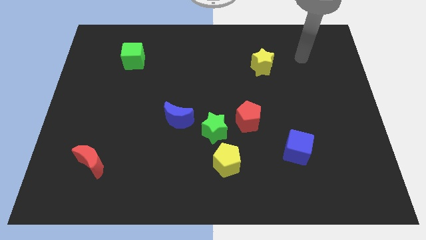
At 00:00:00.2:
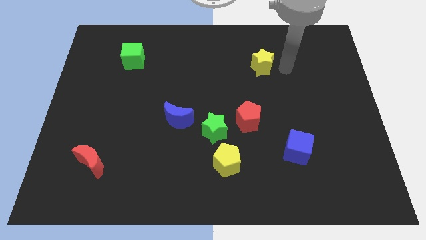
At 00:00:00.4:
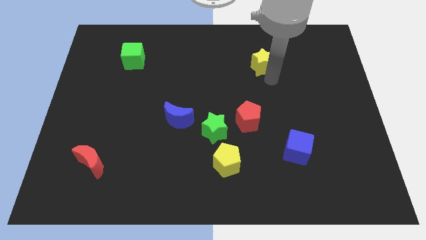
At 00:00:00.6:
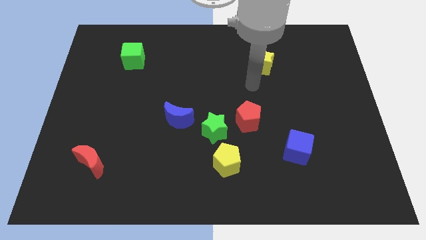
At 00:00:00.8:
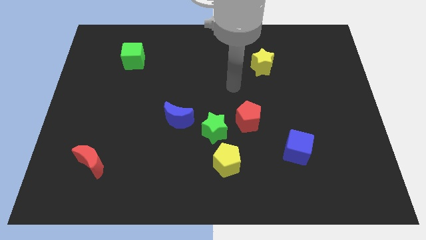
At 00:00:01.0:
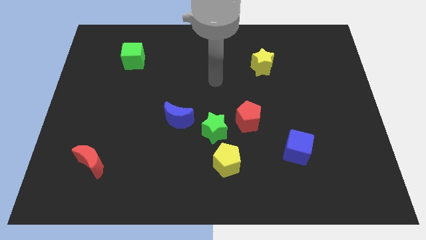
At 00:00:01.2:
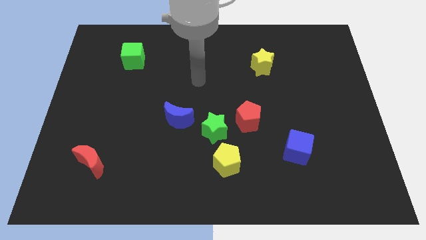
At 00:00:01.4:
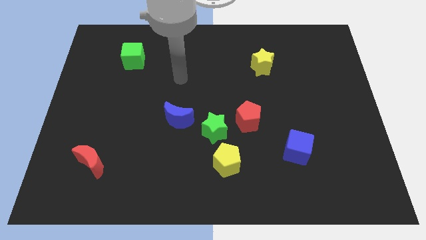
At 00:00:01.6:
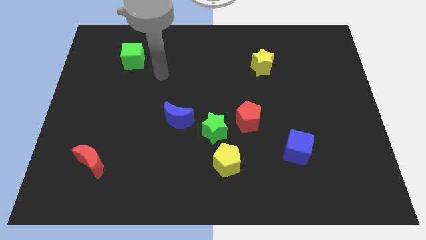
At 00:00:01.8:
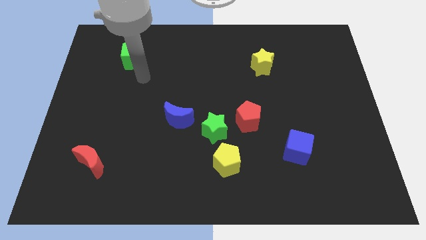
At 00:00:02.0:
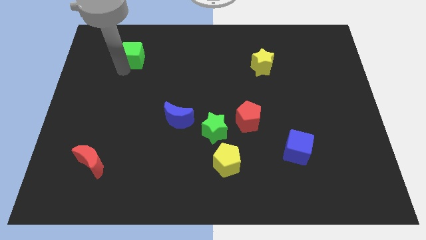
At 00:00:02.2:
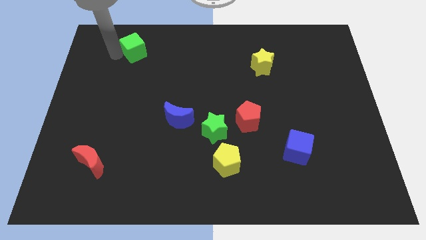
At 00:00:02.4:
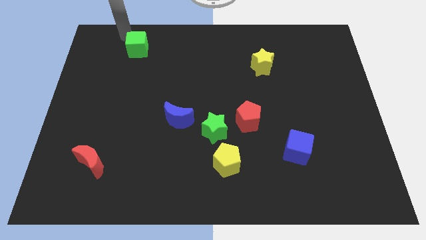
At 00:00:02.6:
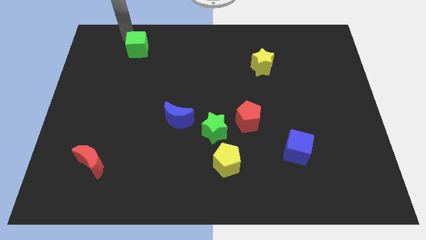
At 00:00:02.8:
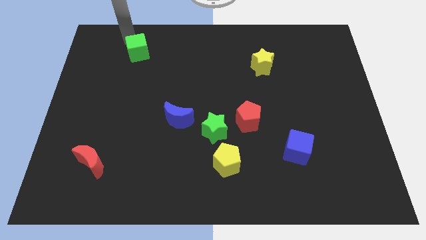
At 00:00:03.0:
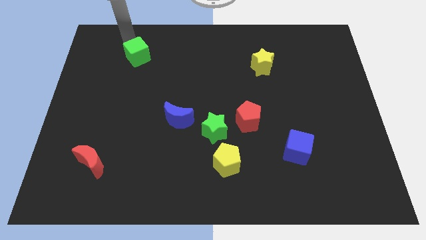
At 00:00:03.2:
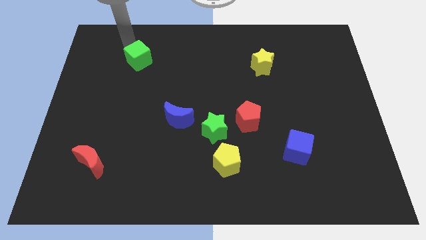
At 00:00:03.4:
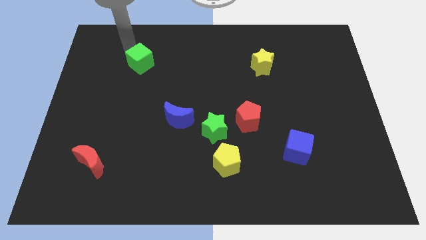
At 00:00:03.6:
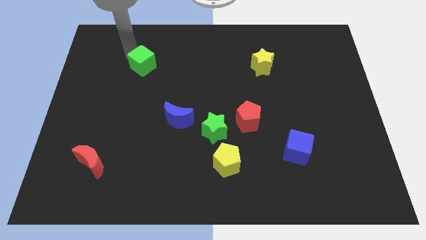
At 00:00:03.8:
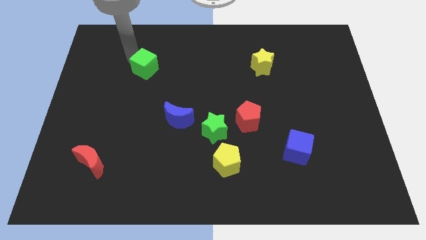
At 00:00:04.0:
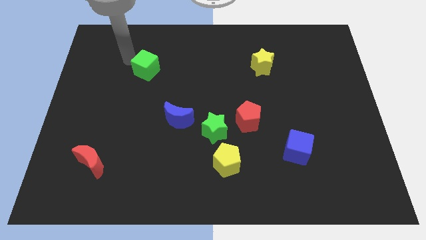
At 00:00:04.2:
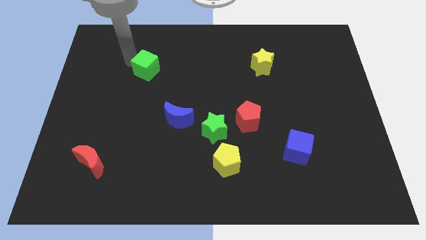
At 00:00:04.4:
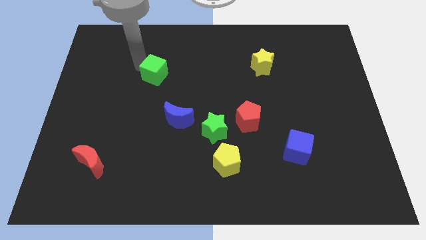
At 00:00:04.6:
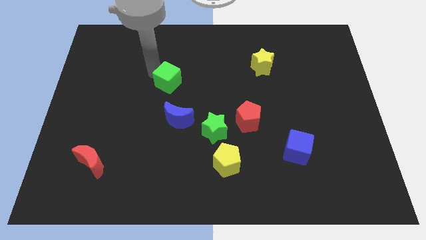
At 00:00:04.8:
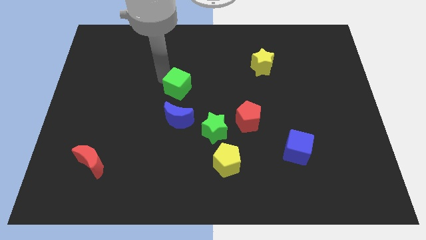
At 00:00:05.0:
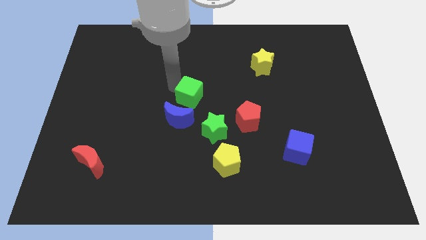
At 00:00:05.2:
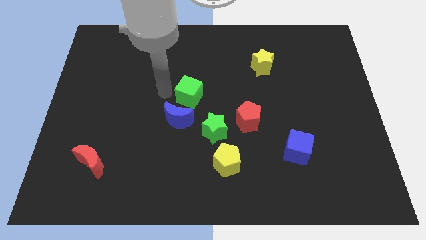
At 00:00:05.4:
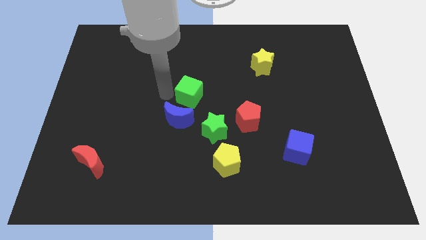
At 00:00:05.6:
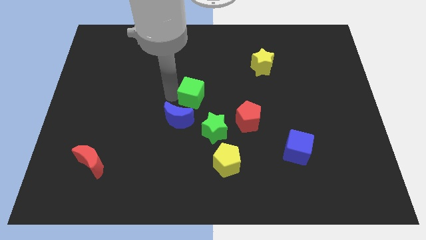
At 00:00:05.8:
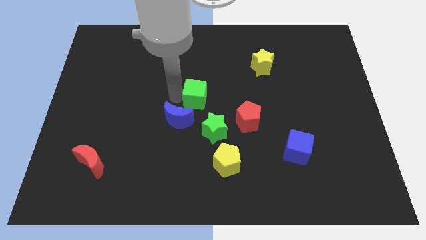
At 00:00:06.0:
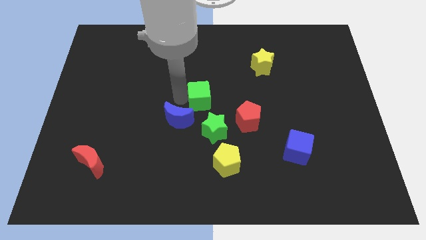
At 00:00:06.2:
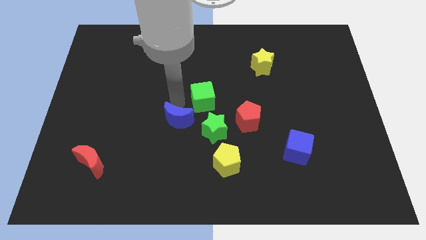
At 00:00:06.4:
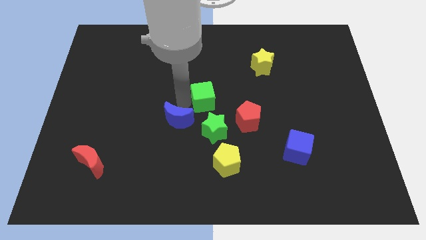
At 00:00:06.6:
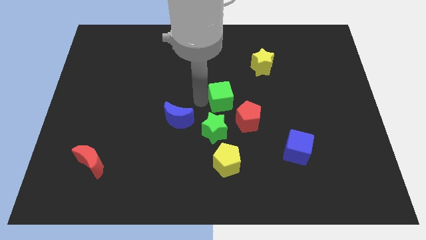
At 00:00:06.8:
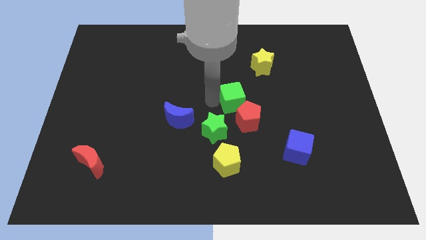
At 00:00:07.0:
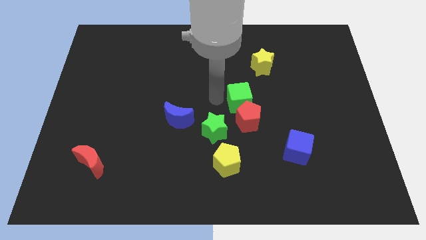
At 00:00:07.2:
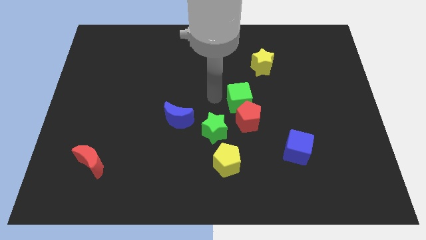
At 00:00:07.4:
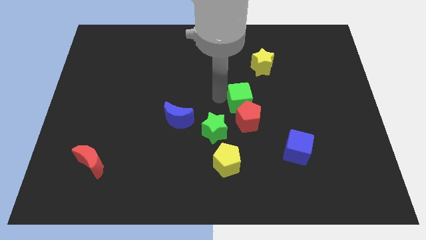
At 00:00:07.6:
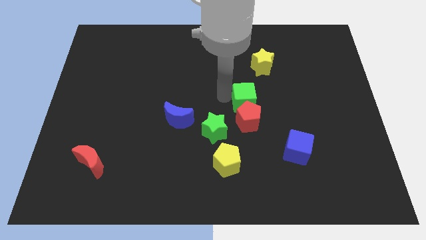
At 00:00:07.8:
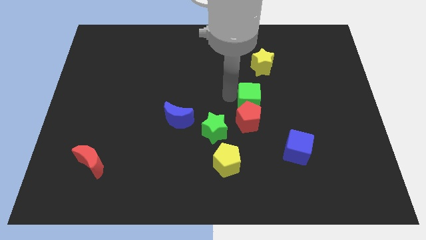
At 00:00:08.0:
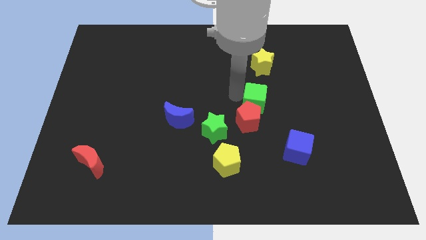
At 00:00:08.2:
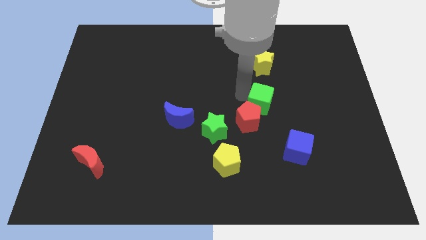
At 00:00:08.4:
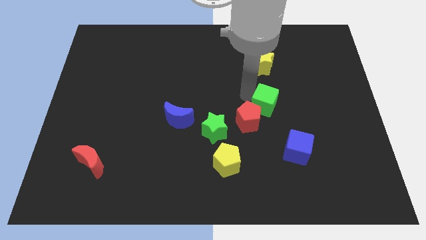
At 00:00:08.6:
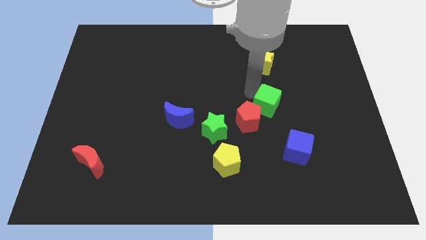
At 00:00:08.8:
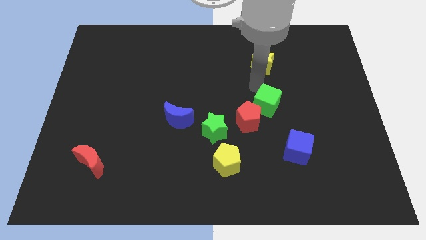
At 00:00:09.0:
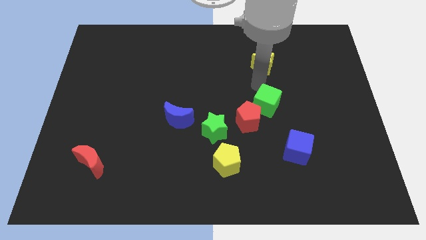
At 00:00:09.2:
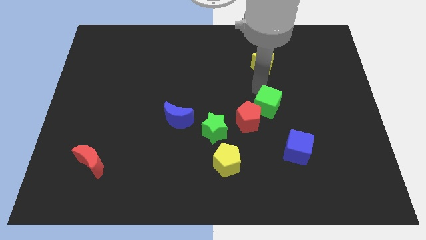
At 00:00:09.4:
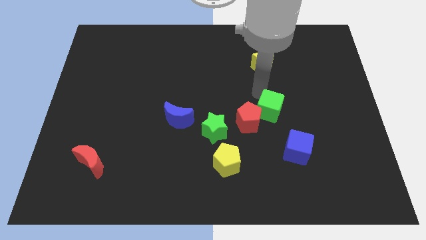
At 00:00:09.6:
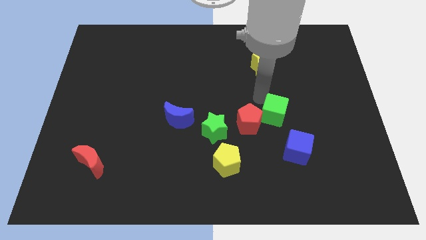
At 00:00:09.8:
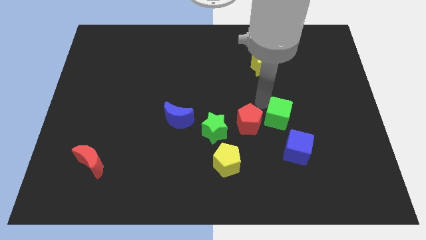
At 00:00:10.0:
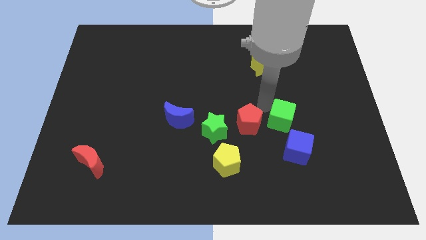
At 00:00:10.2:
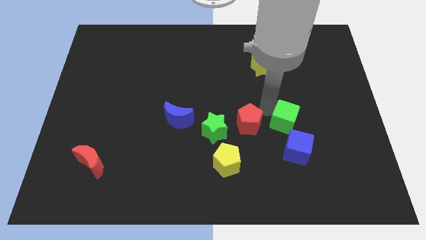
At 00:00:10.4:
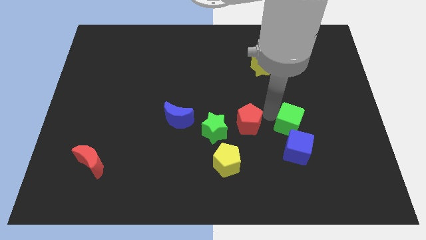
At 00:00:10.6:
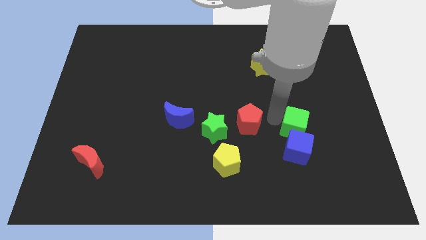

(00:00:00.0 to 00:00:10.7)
slide the green cube next to the blue cube

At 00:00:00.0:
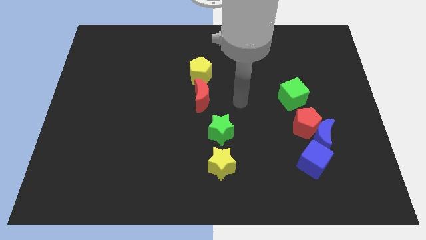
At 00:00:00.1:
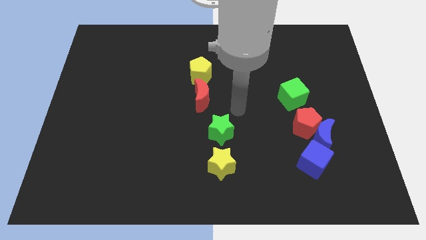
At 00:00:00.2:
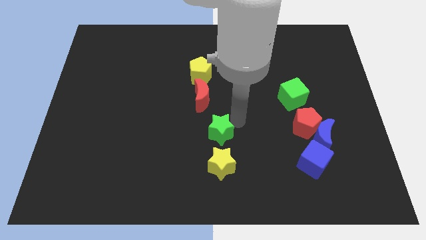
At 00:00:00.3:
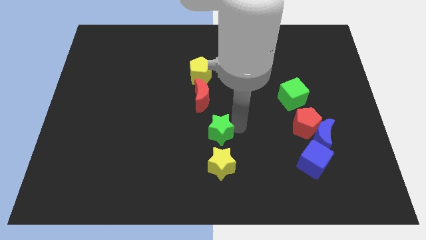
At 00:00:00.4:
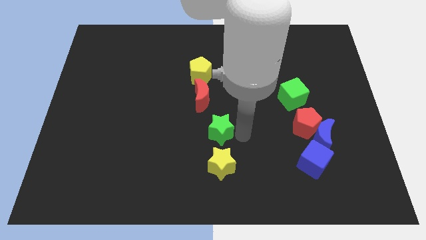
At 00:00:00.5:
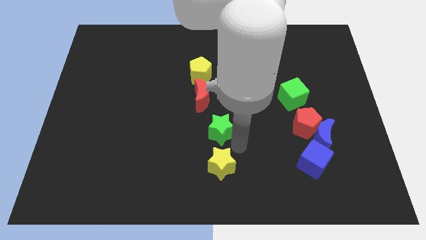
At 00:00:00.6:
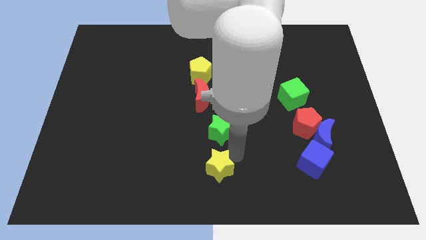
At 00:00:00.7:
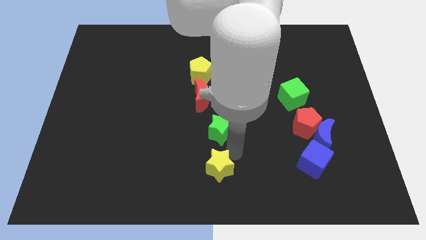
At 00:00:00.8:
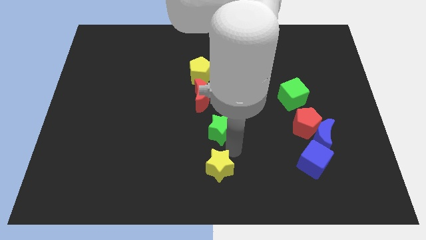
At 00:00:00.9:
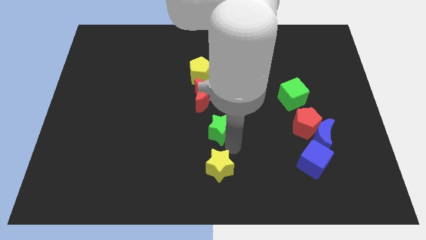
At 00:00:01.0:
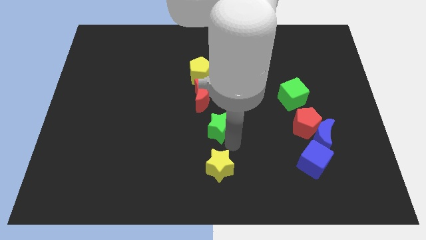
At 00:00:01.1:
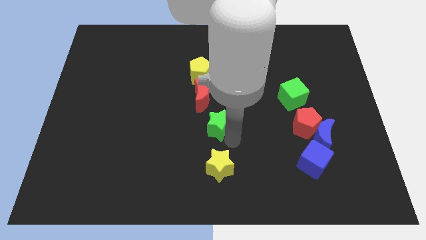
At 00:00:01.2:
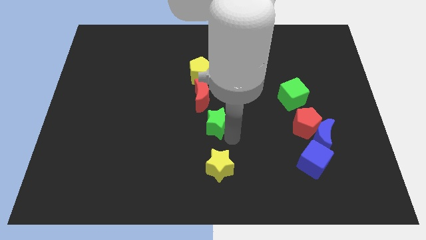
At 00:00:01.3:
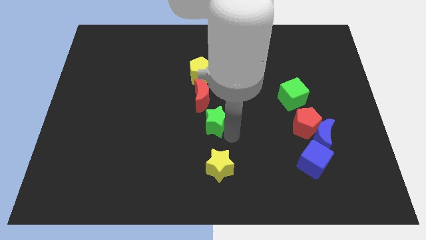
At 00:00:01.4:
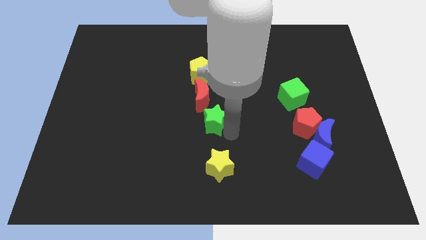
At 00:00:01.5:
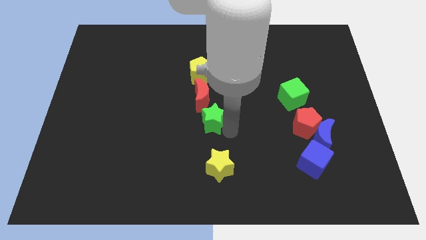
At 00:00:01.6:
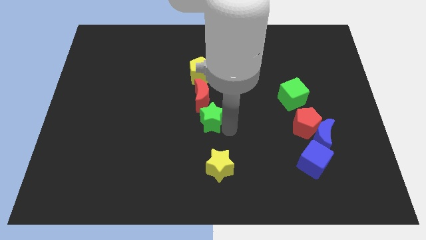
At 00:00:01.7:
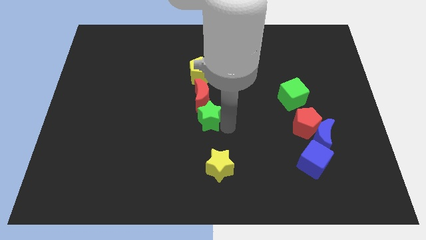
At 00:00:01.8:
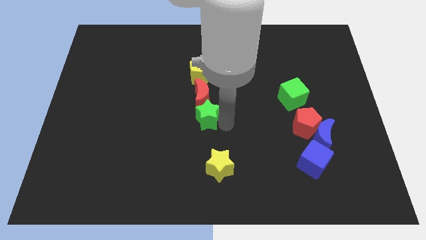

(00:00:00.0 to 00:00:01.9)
slide the green star close to the red moon
